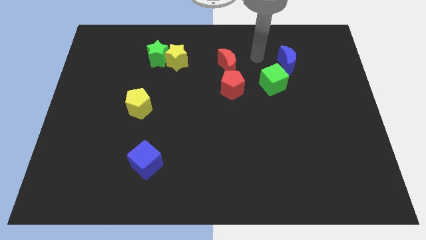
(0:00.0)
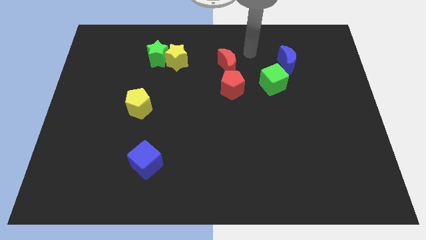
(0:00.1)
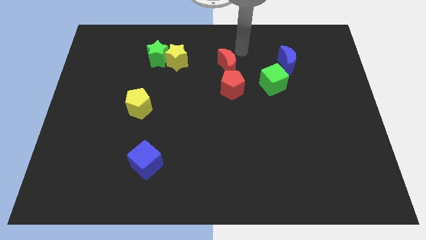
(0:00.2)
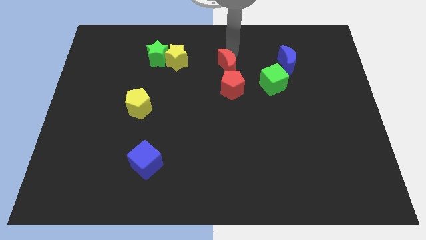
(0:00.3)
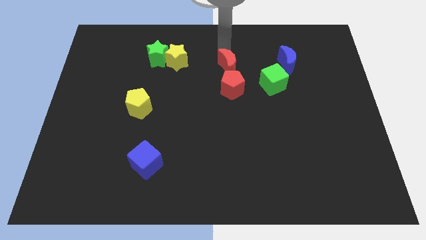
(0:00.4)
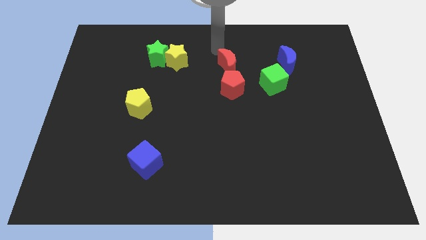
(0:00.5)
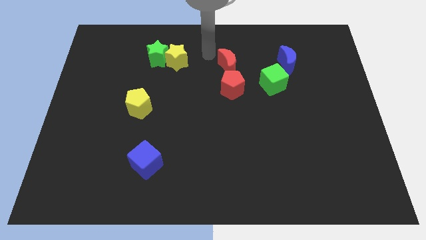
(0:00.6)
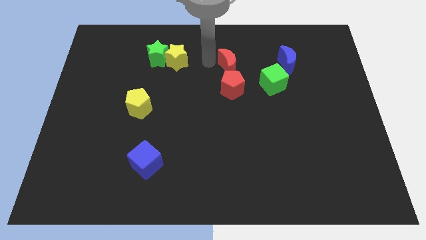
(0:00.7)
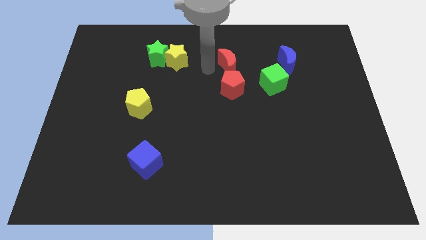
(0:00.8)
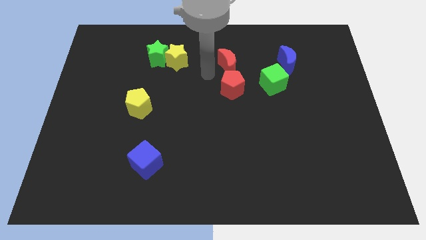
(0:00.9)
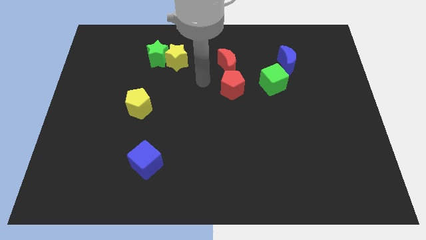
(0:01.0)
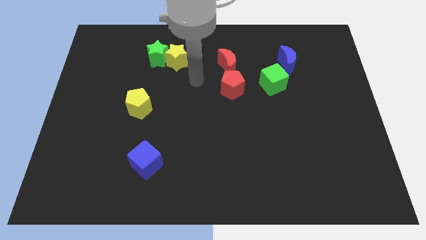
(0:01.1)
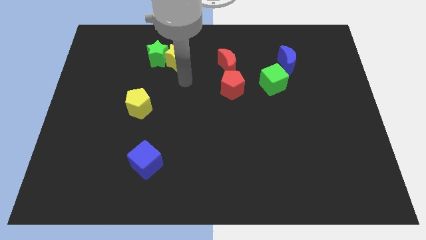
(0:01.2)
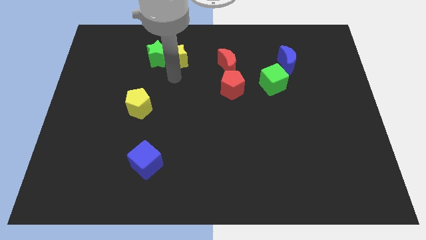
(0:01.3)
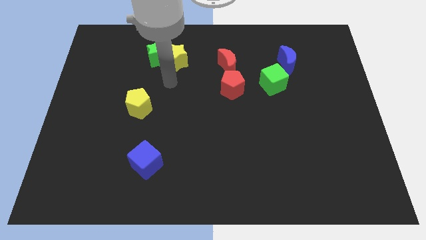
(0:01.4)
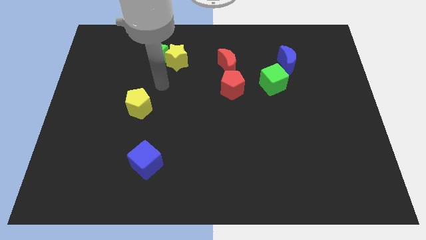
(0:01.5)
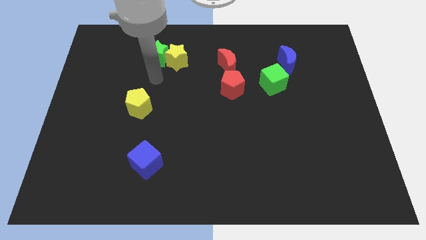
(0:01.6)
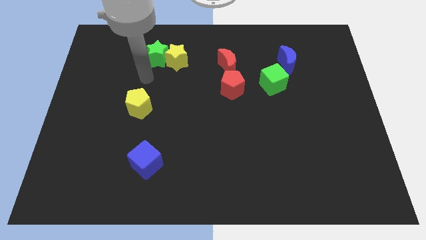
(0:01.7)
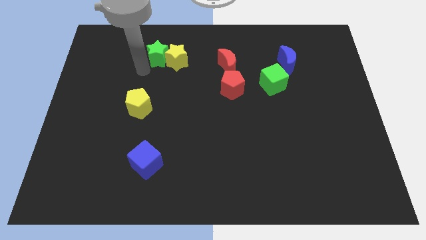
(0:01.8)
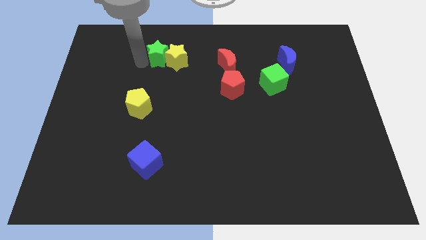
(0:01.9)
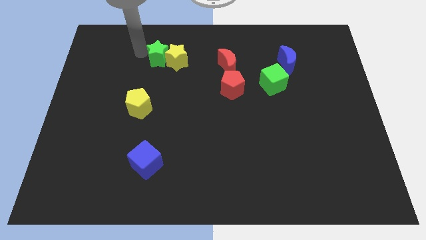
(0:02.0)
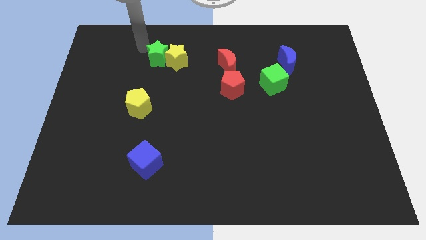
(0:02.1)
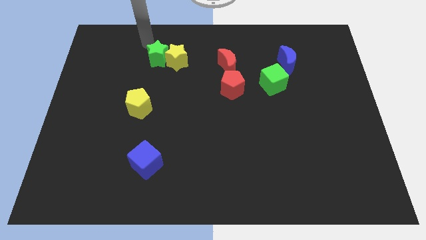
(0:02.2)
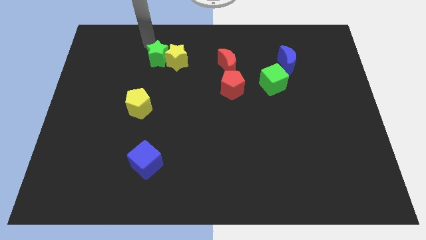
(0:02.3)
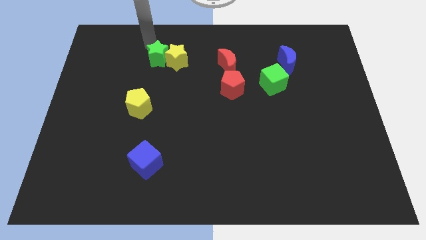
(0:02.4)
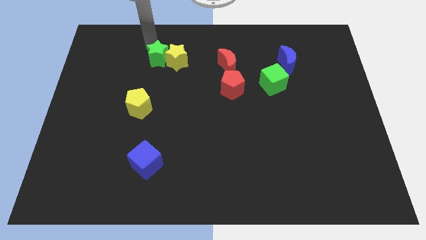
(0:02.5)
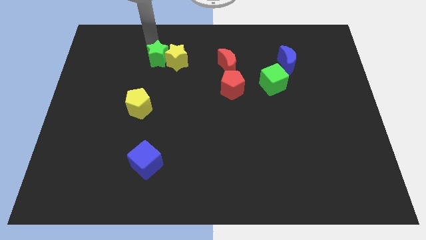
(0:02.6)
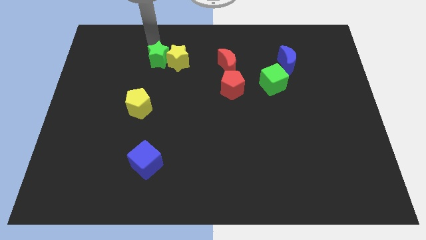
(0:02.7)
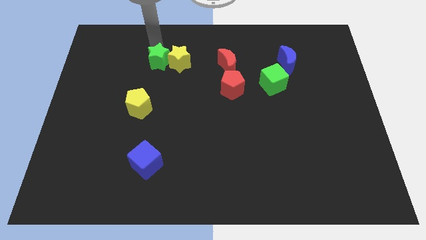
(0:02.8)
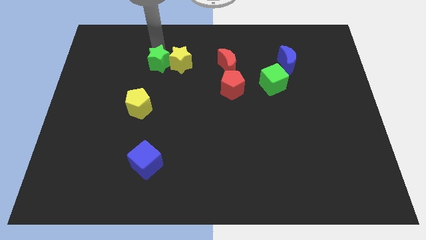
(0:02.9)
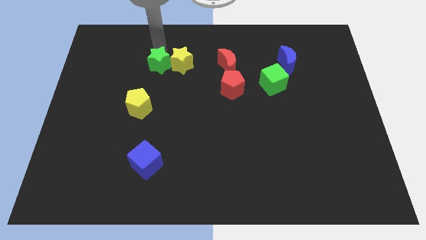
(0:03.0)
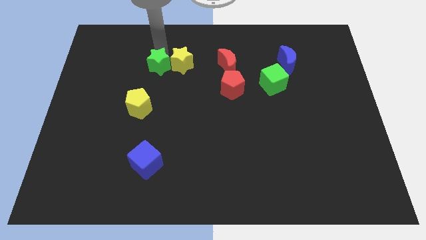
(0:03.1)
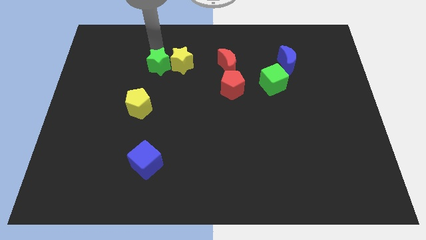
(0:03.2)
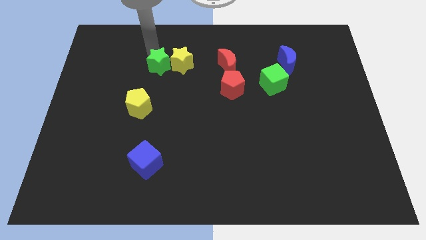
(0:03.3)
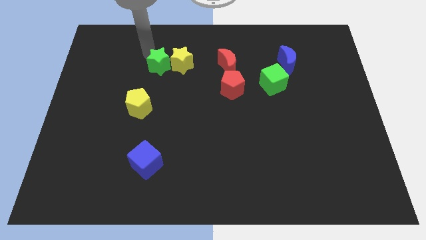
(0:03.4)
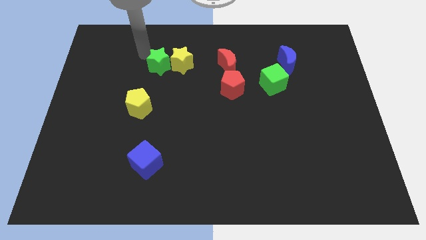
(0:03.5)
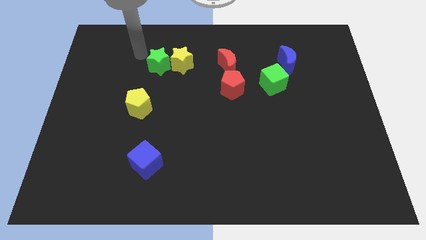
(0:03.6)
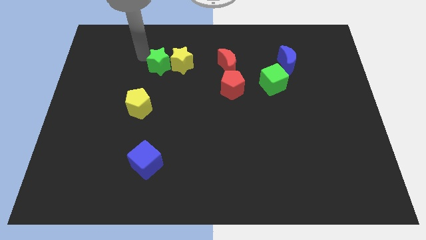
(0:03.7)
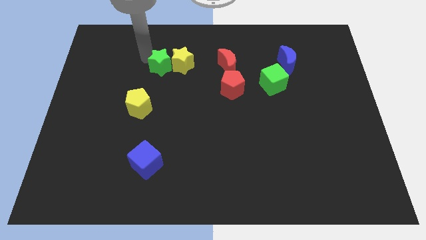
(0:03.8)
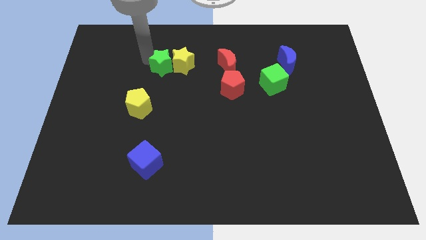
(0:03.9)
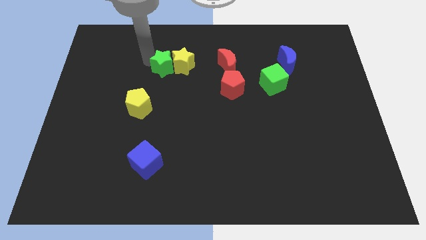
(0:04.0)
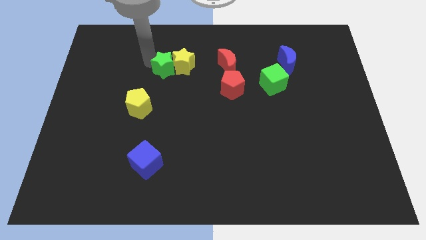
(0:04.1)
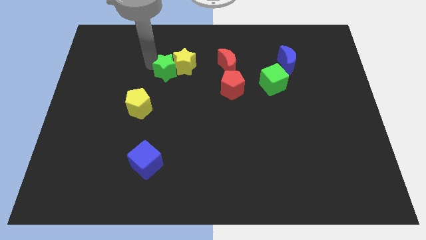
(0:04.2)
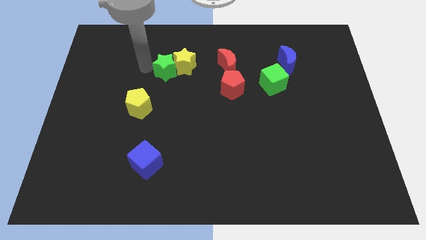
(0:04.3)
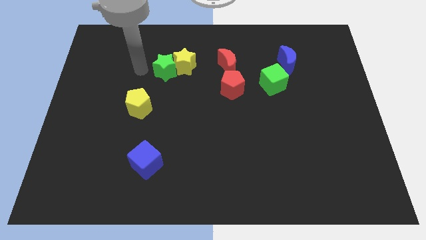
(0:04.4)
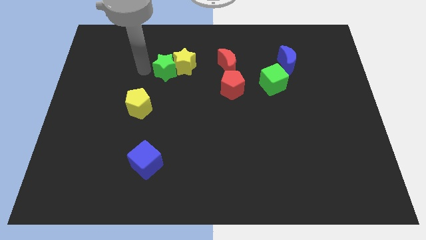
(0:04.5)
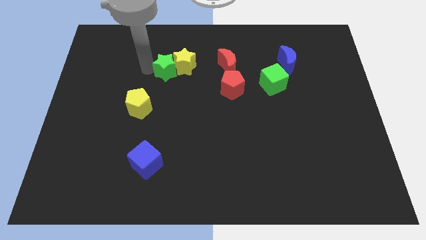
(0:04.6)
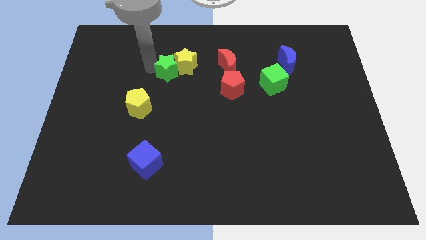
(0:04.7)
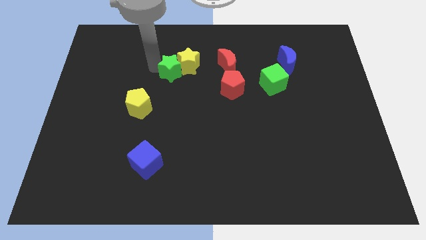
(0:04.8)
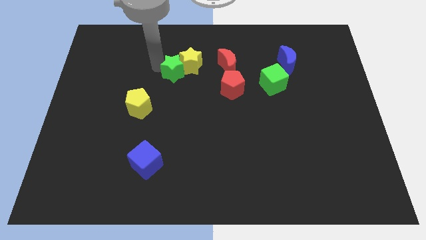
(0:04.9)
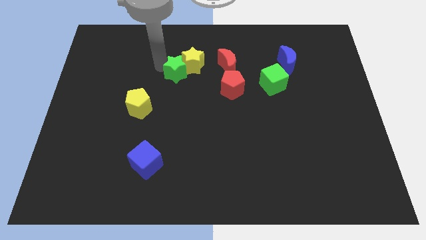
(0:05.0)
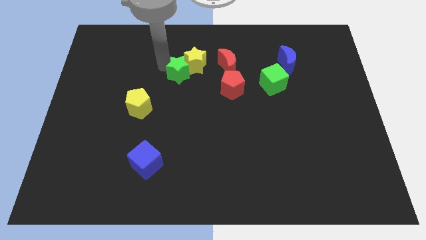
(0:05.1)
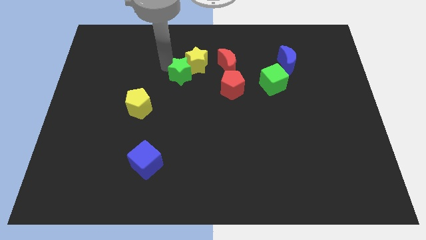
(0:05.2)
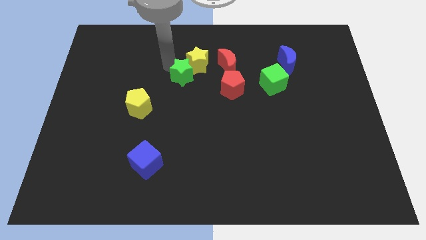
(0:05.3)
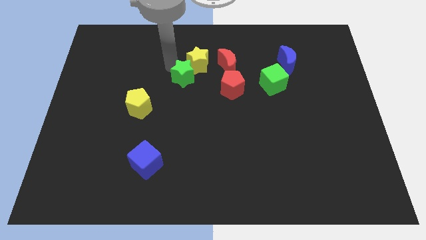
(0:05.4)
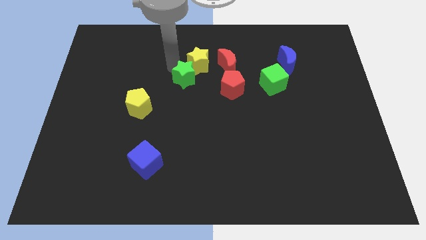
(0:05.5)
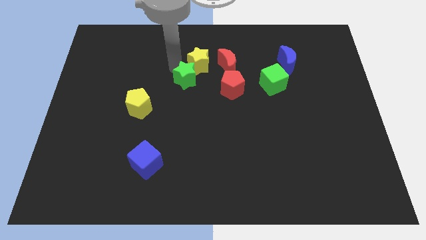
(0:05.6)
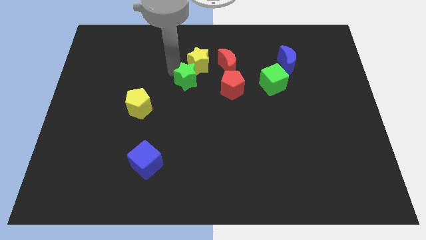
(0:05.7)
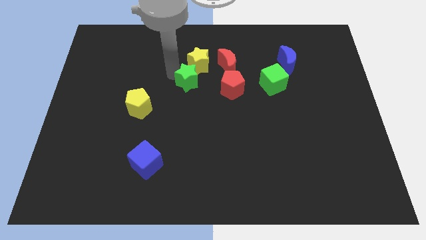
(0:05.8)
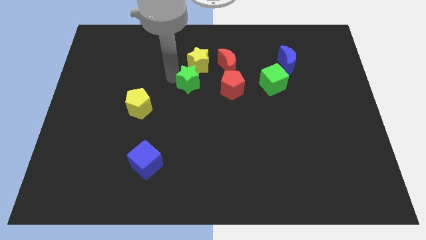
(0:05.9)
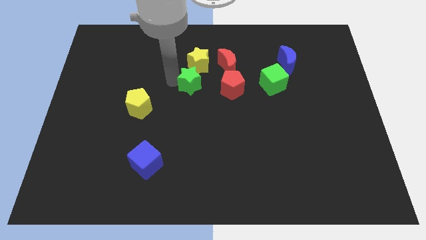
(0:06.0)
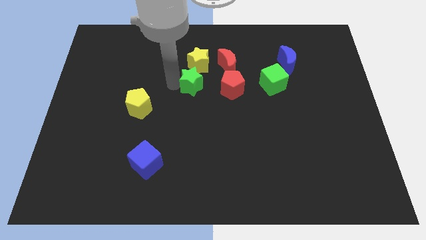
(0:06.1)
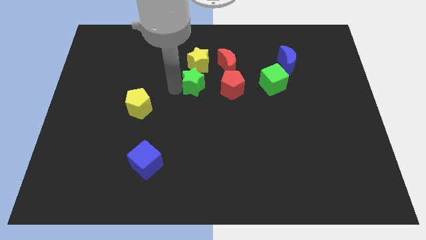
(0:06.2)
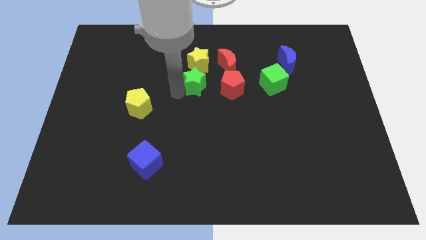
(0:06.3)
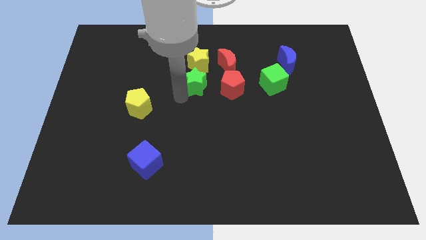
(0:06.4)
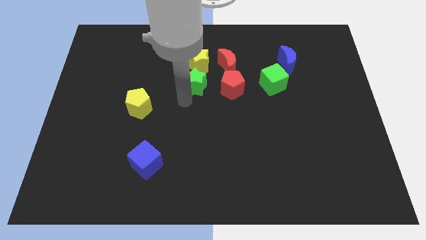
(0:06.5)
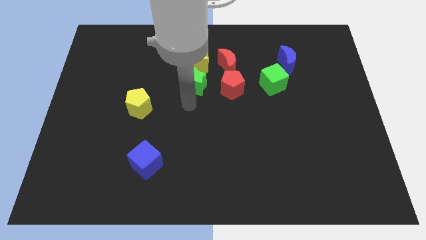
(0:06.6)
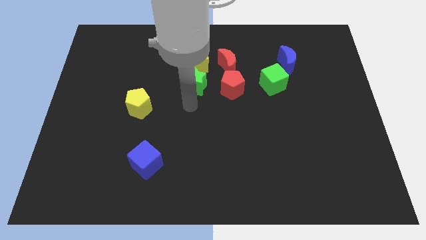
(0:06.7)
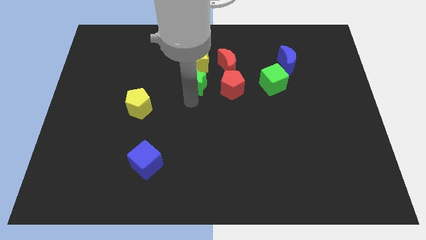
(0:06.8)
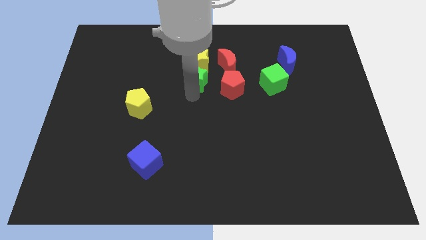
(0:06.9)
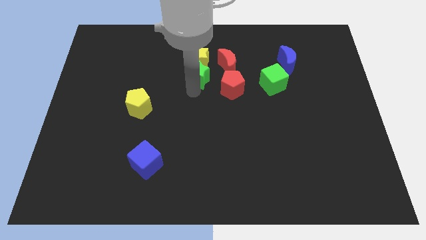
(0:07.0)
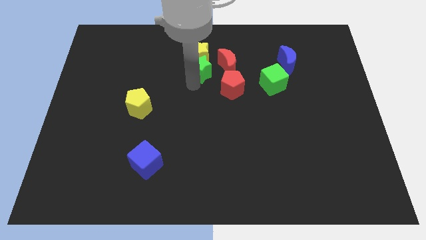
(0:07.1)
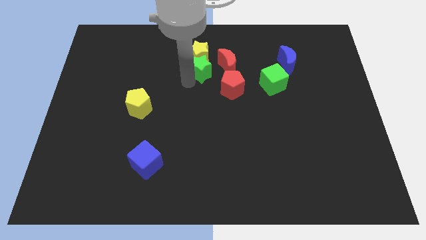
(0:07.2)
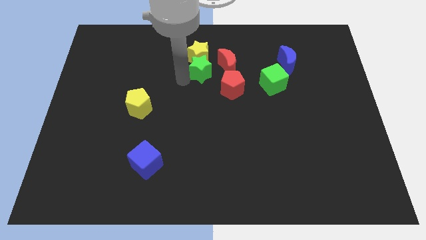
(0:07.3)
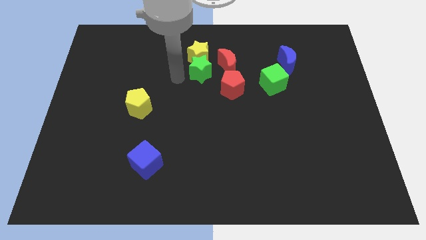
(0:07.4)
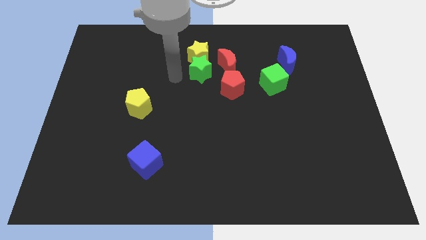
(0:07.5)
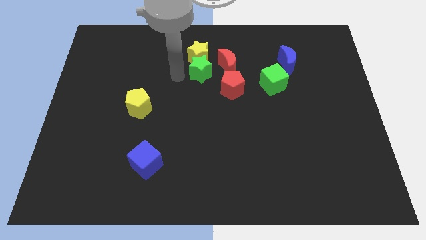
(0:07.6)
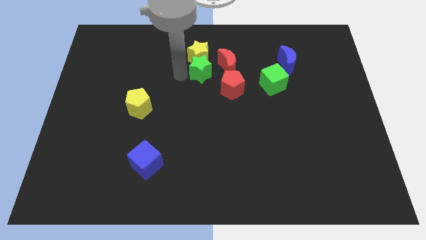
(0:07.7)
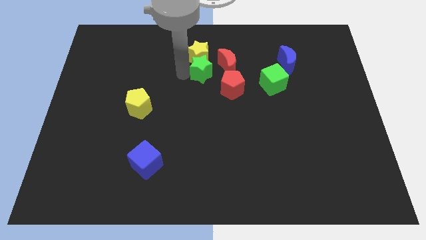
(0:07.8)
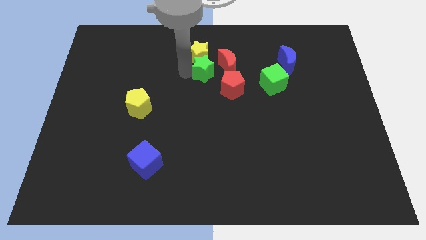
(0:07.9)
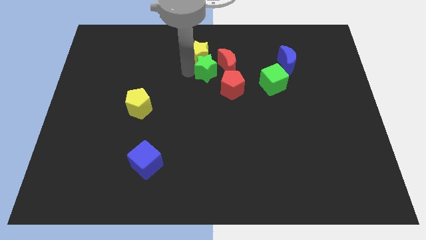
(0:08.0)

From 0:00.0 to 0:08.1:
slide the green star to the red moon
